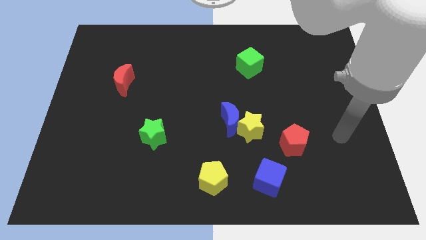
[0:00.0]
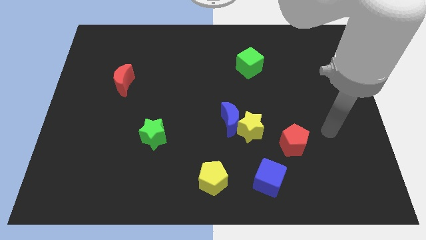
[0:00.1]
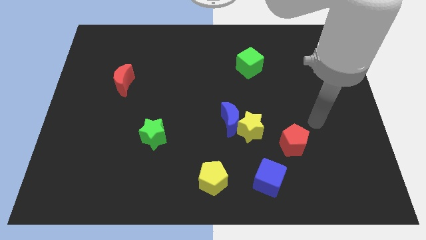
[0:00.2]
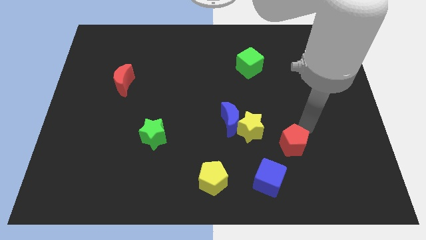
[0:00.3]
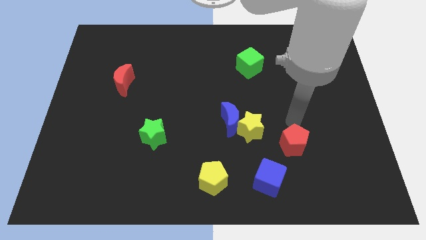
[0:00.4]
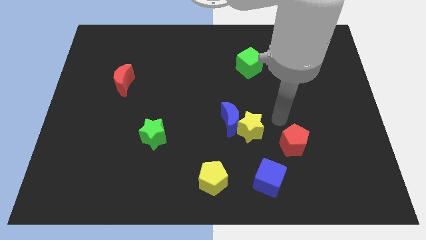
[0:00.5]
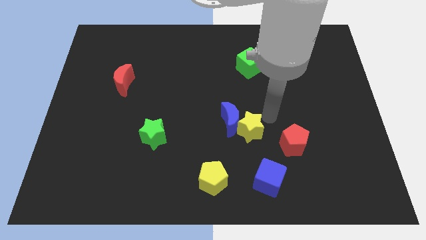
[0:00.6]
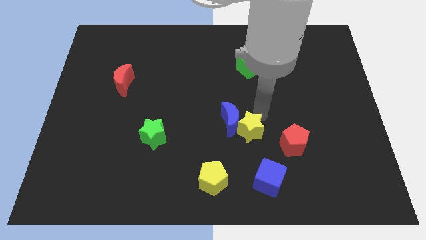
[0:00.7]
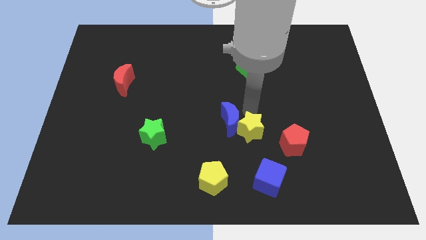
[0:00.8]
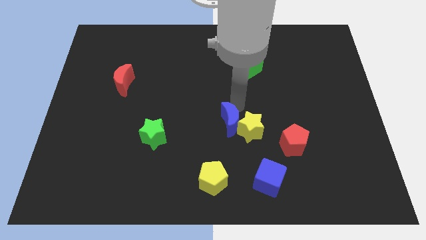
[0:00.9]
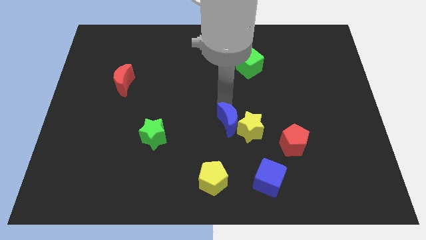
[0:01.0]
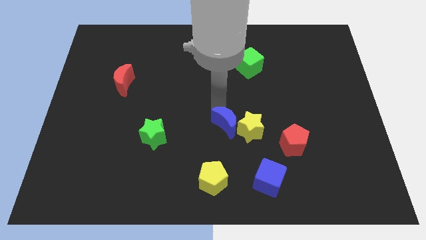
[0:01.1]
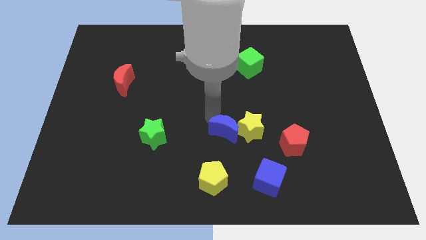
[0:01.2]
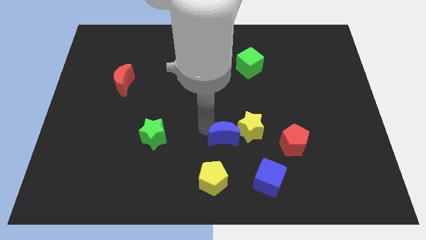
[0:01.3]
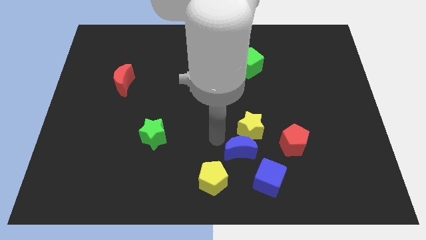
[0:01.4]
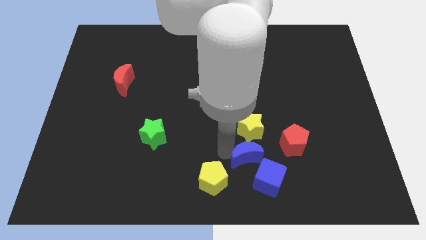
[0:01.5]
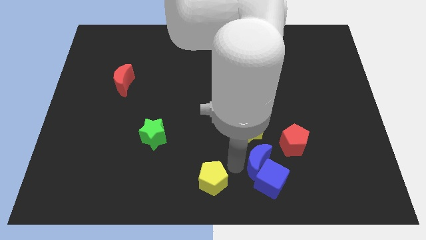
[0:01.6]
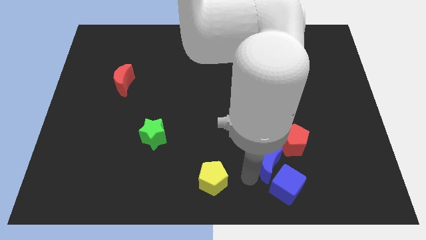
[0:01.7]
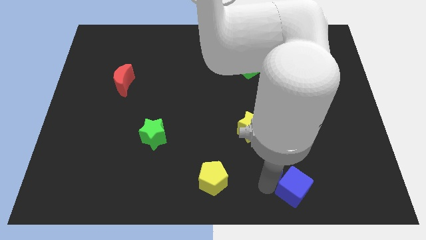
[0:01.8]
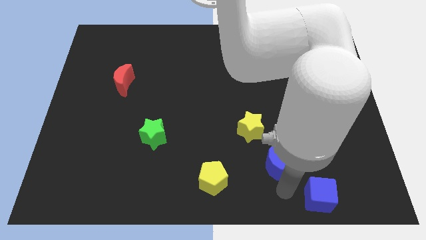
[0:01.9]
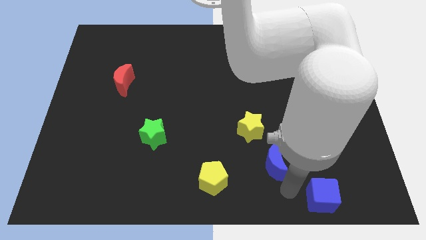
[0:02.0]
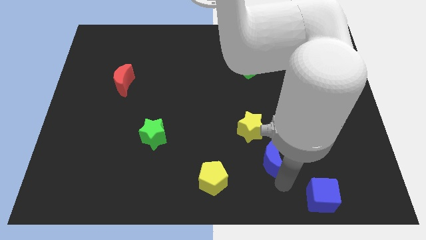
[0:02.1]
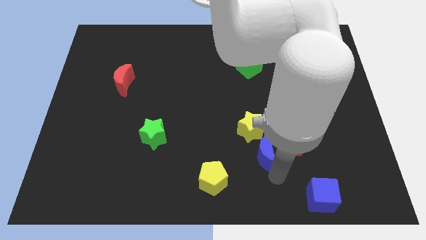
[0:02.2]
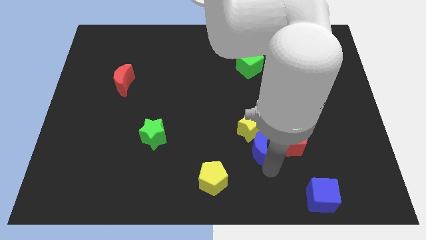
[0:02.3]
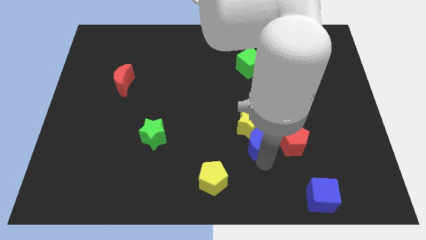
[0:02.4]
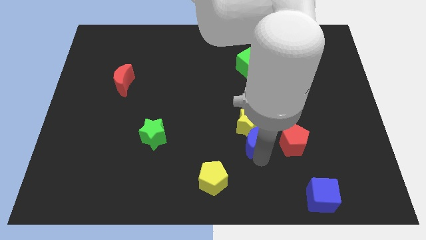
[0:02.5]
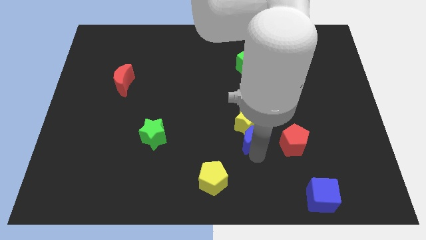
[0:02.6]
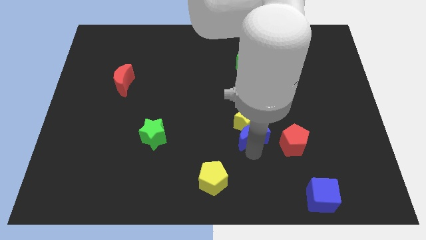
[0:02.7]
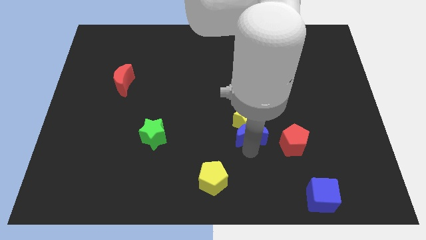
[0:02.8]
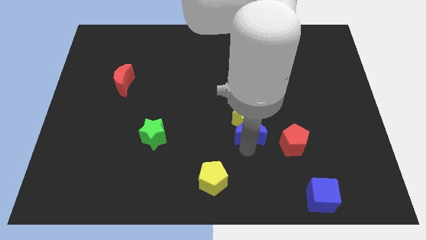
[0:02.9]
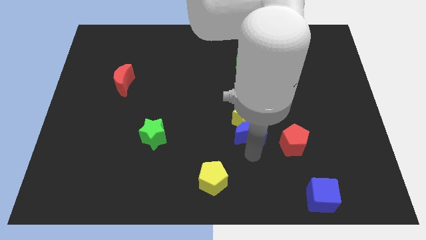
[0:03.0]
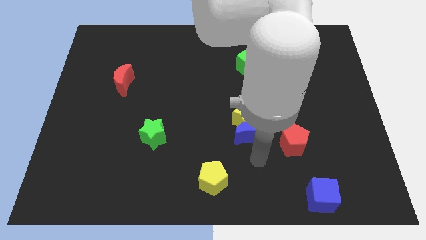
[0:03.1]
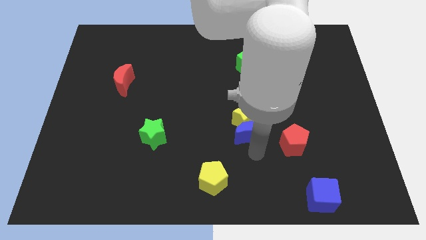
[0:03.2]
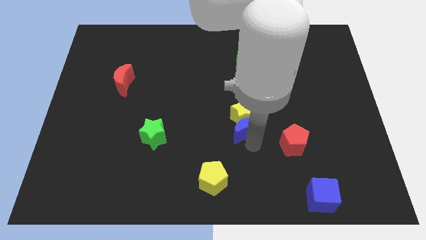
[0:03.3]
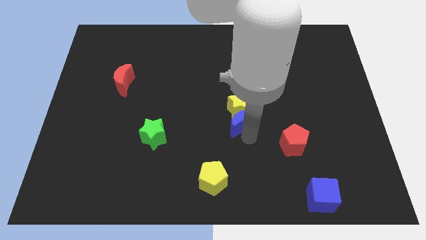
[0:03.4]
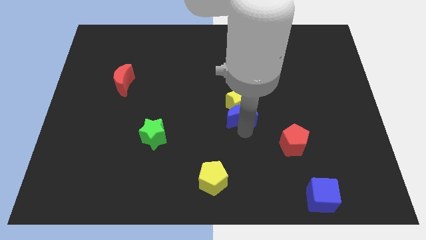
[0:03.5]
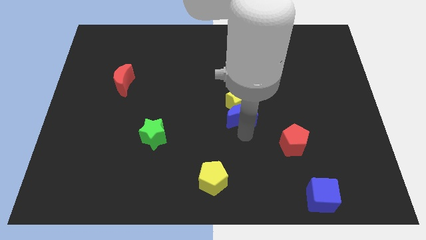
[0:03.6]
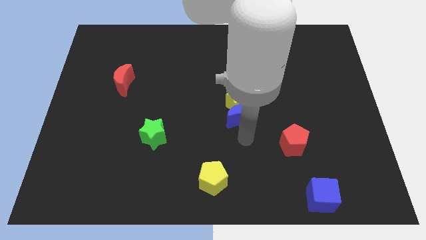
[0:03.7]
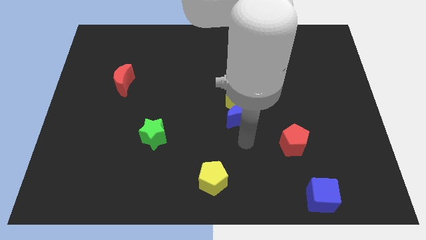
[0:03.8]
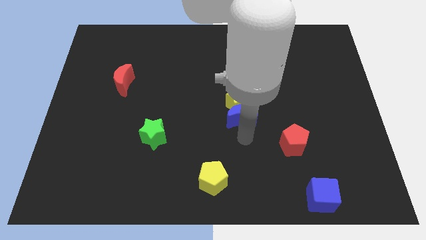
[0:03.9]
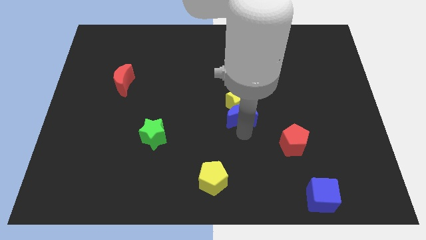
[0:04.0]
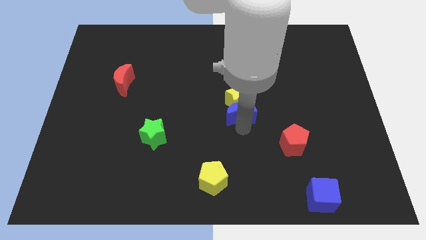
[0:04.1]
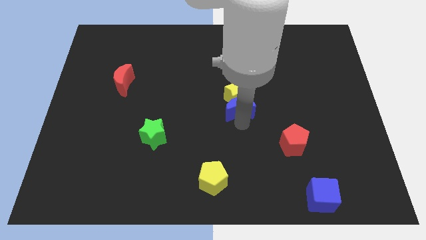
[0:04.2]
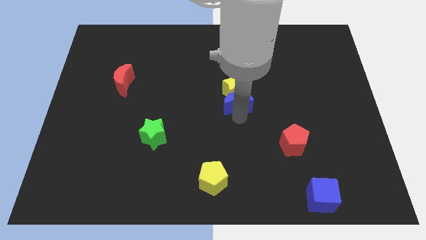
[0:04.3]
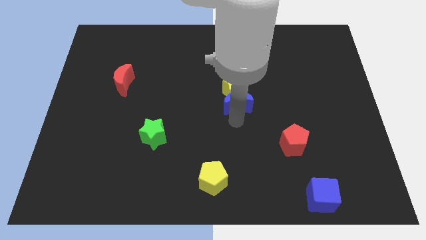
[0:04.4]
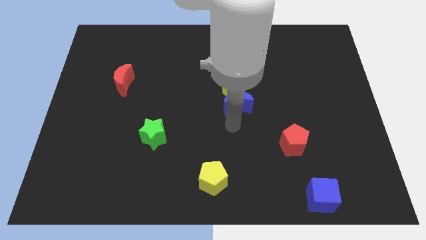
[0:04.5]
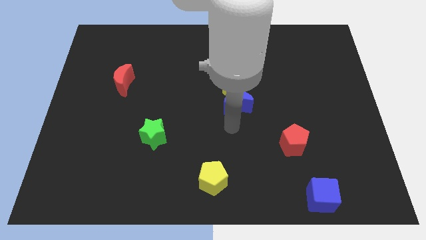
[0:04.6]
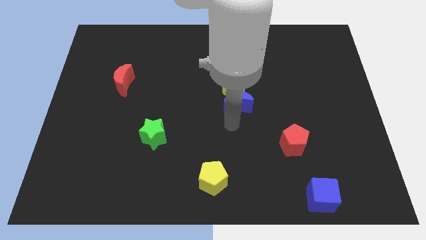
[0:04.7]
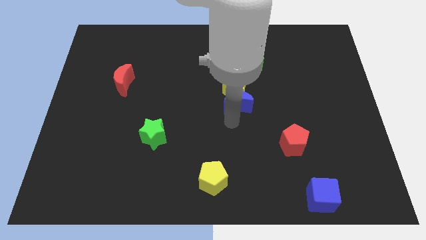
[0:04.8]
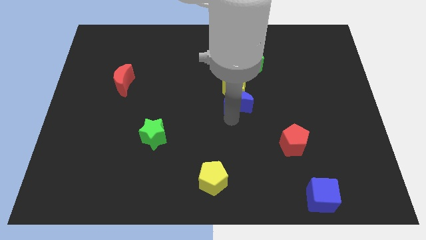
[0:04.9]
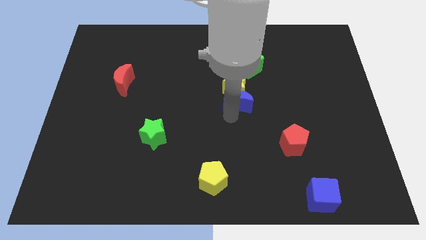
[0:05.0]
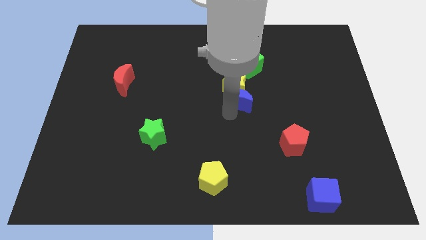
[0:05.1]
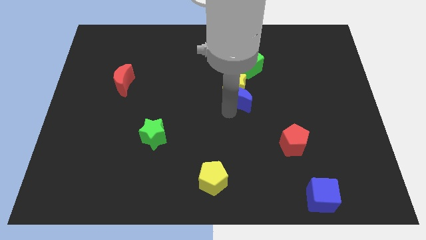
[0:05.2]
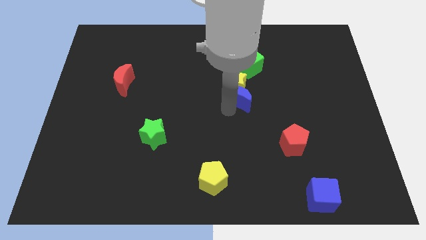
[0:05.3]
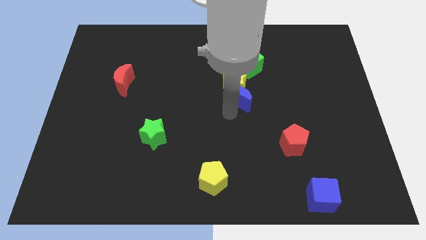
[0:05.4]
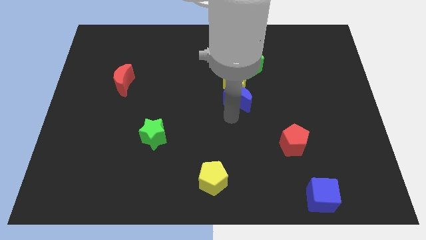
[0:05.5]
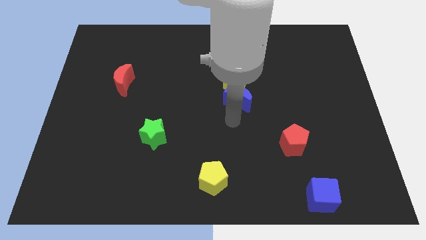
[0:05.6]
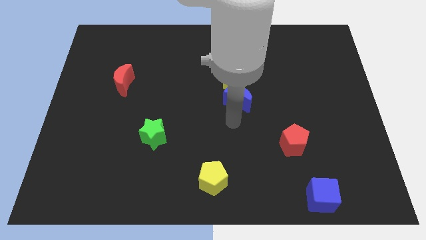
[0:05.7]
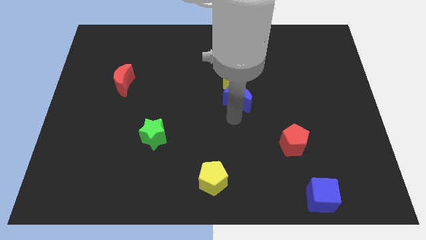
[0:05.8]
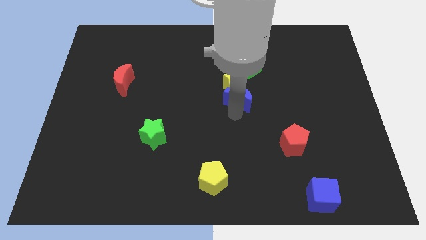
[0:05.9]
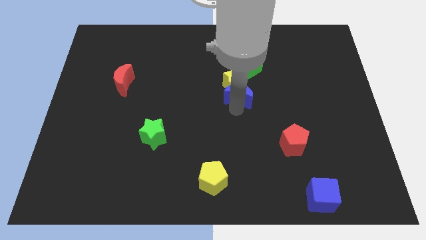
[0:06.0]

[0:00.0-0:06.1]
push the blue moon a bit up

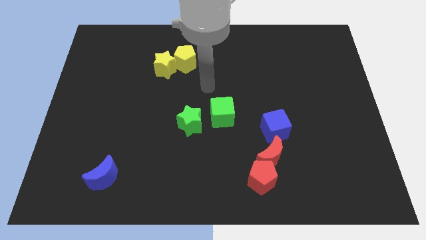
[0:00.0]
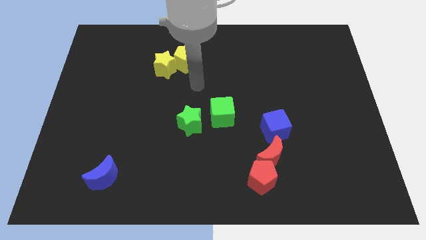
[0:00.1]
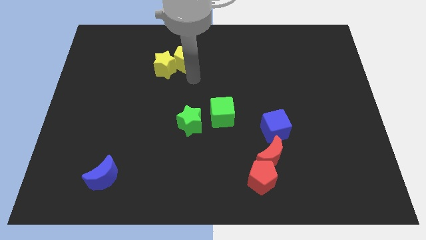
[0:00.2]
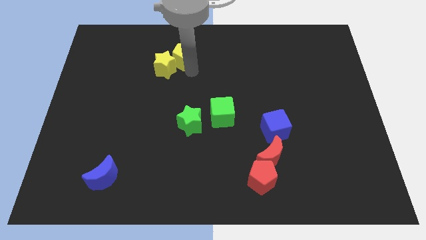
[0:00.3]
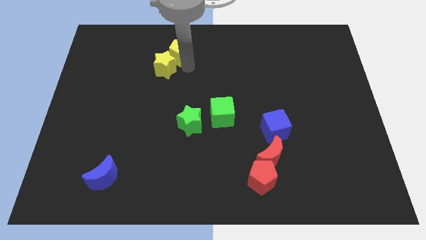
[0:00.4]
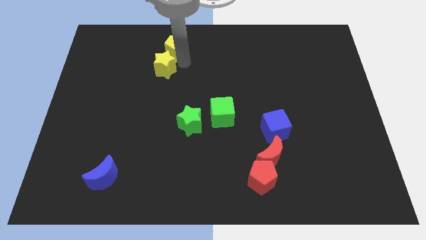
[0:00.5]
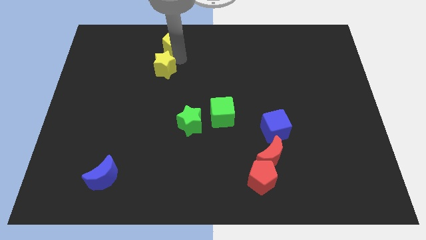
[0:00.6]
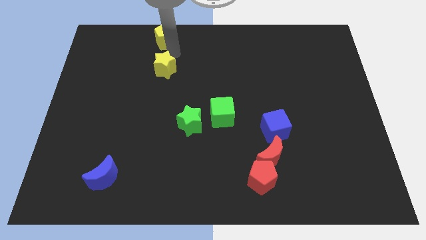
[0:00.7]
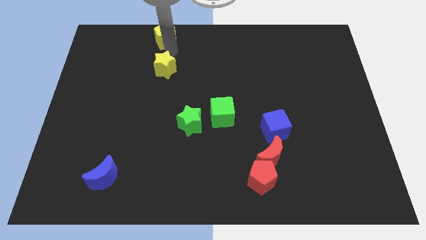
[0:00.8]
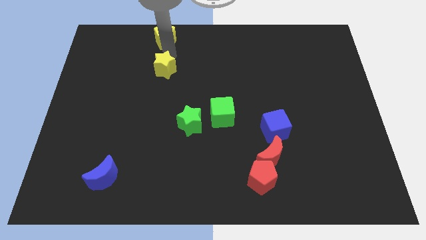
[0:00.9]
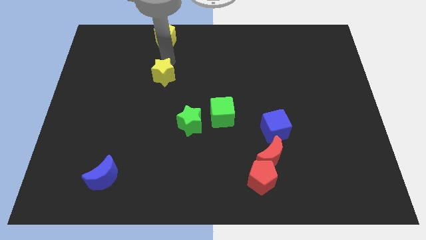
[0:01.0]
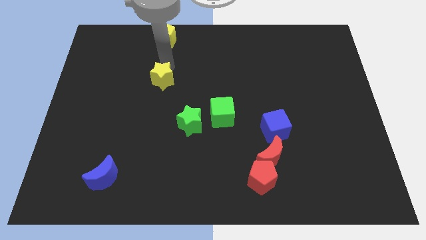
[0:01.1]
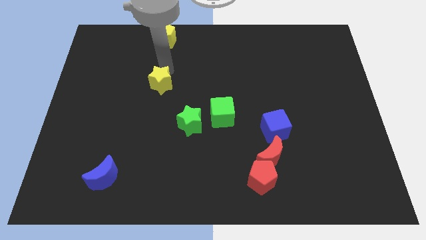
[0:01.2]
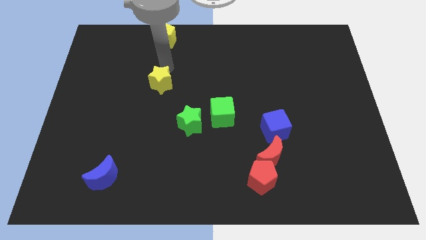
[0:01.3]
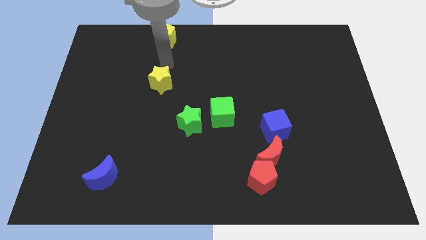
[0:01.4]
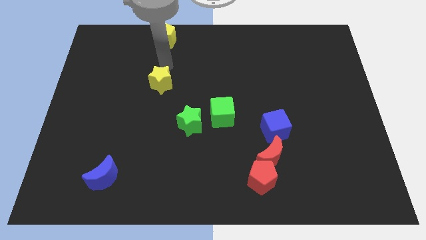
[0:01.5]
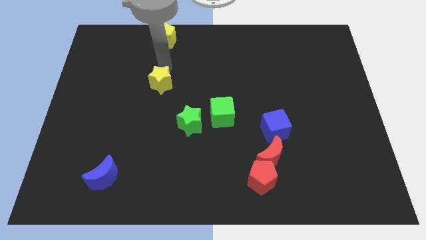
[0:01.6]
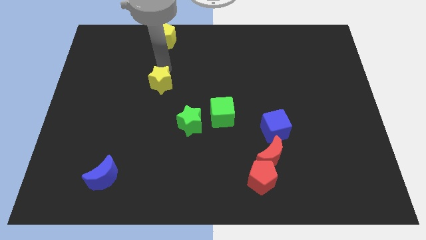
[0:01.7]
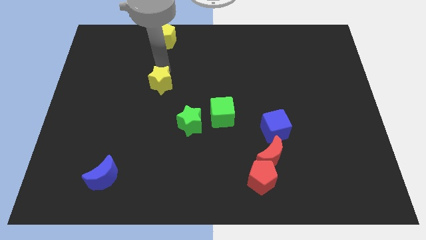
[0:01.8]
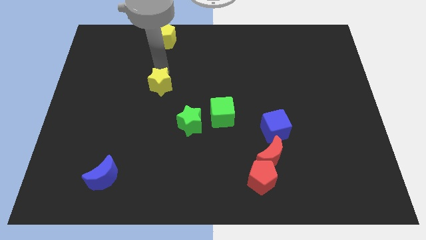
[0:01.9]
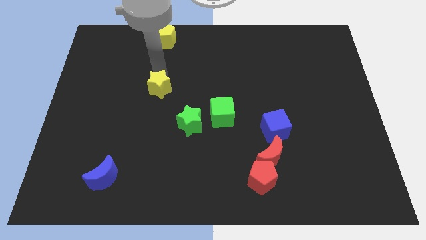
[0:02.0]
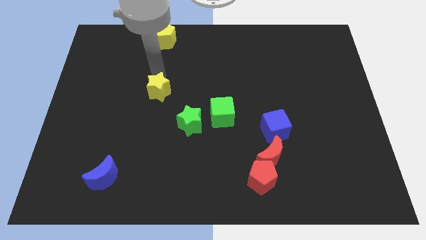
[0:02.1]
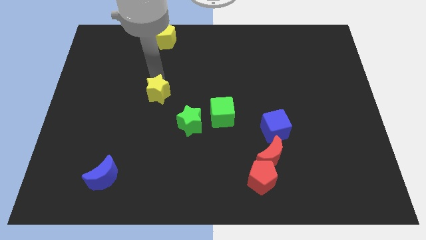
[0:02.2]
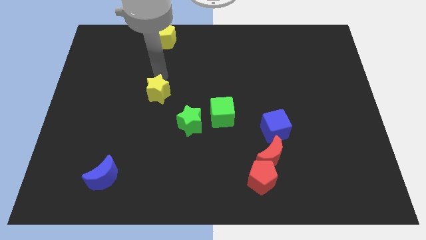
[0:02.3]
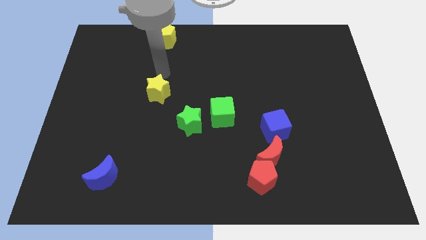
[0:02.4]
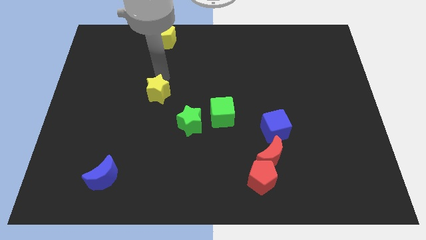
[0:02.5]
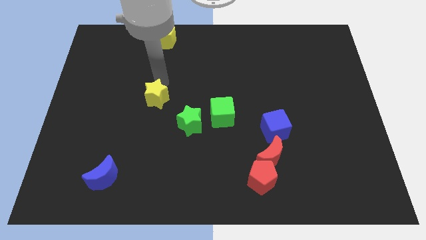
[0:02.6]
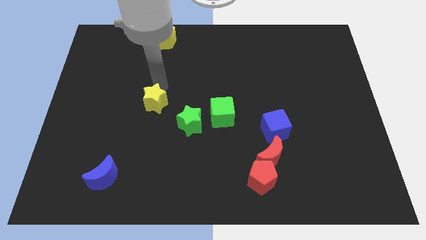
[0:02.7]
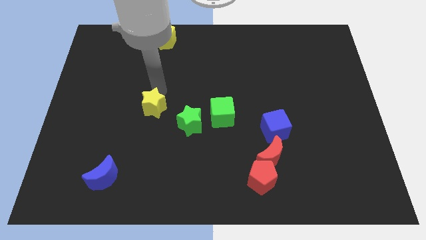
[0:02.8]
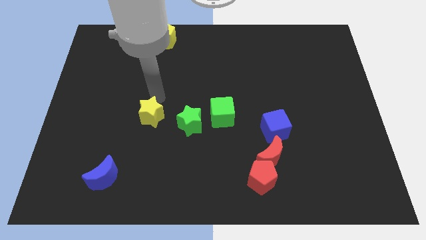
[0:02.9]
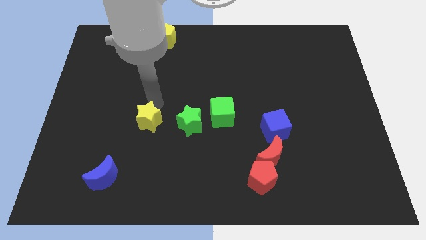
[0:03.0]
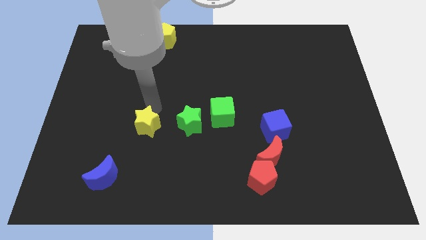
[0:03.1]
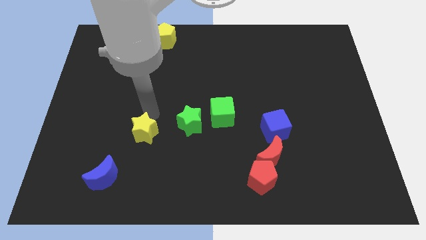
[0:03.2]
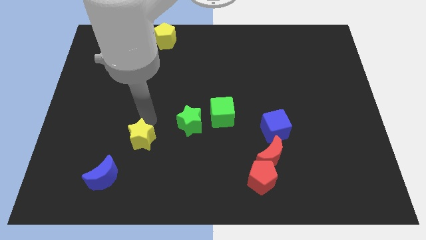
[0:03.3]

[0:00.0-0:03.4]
move the yellow star downwards
